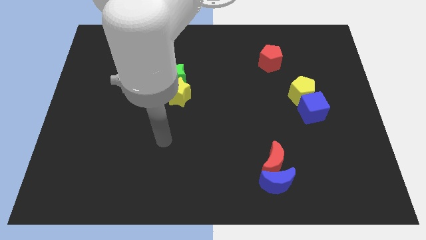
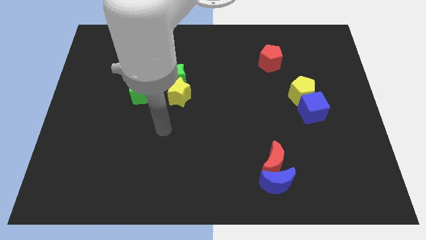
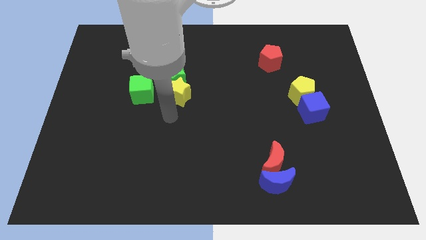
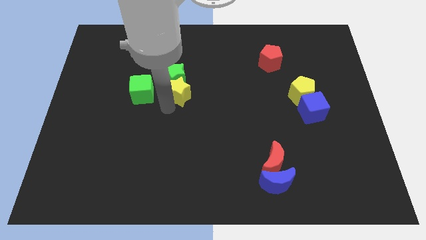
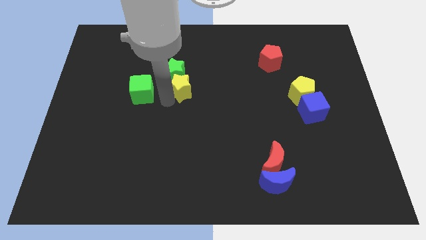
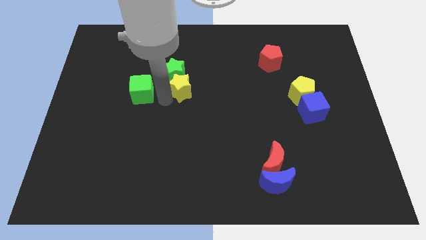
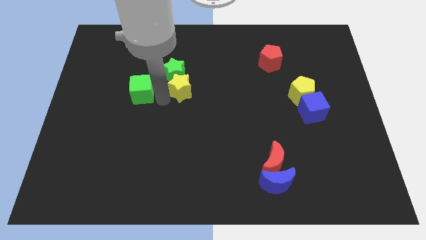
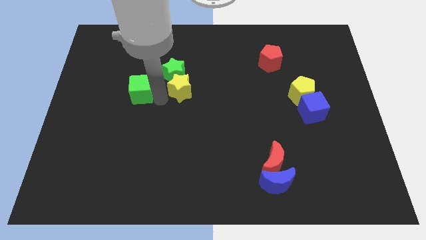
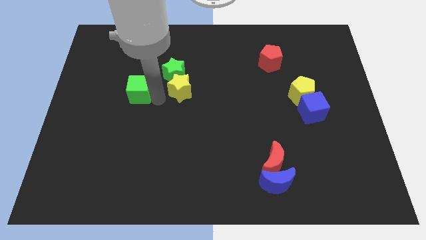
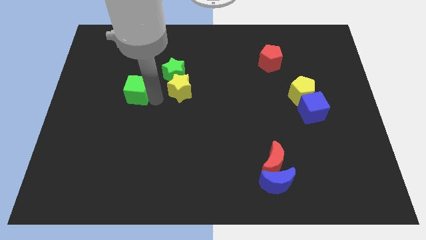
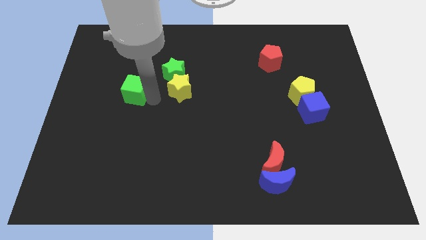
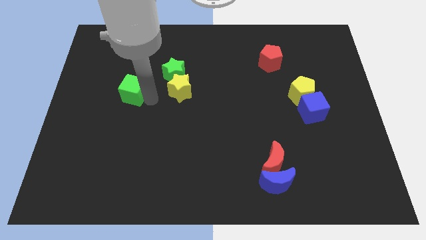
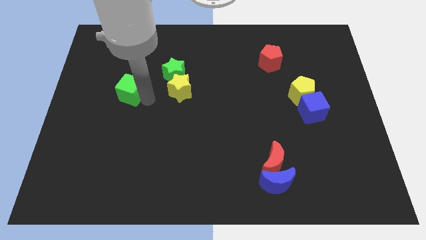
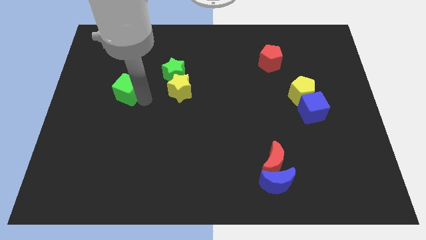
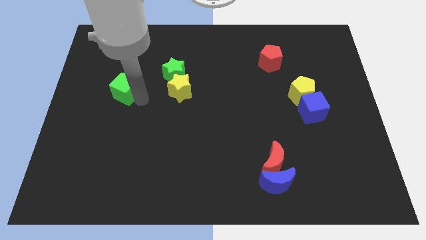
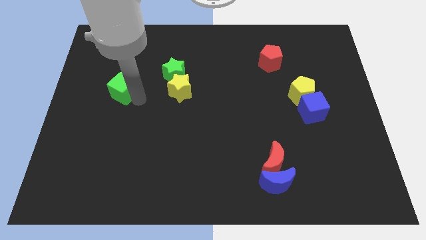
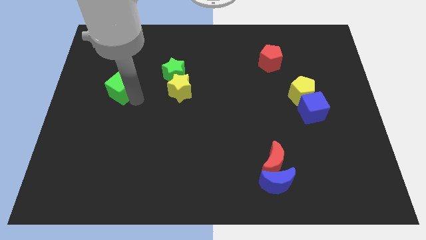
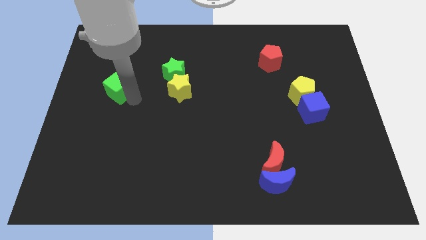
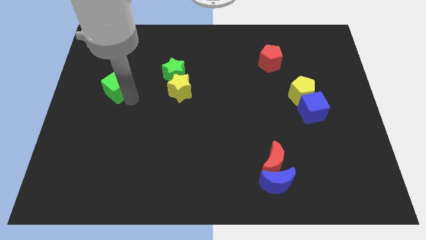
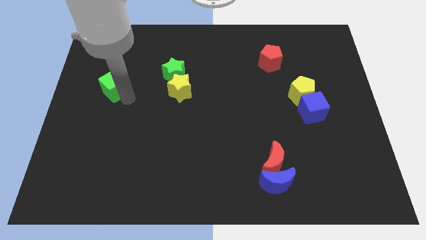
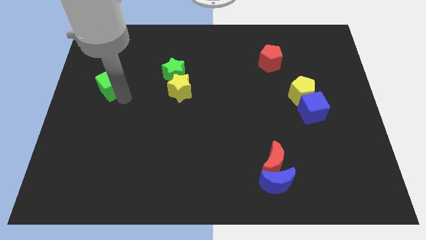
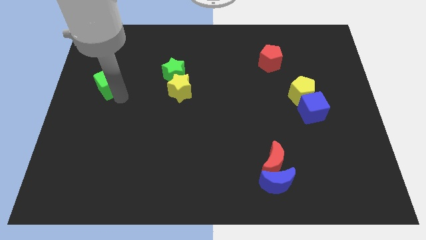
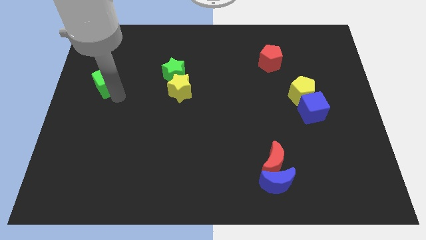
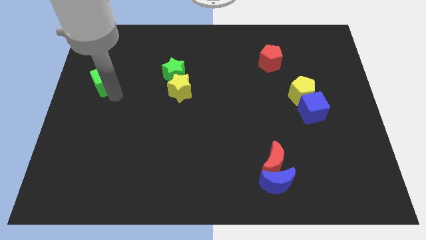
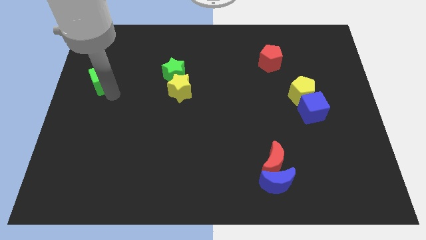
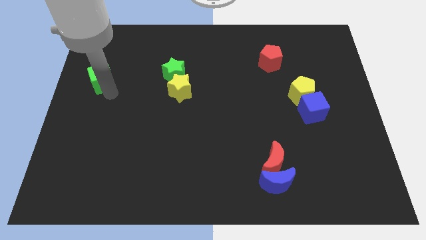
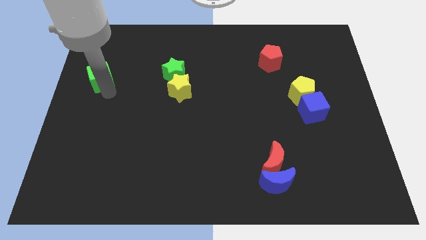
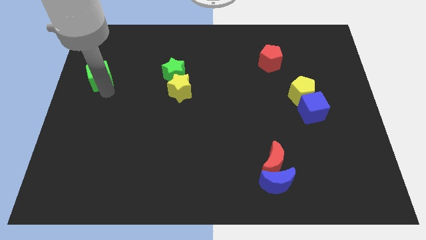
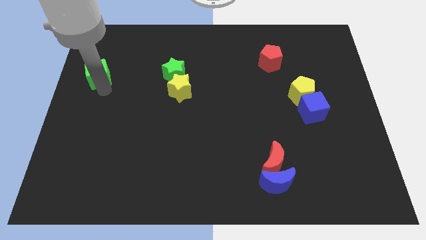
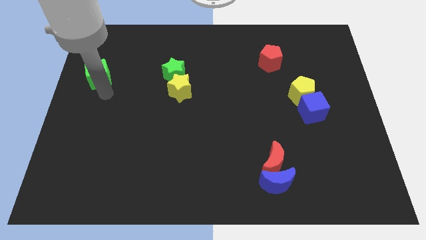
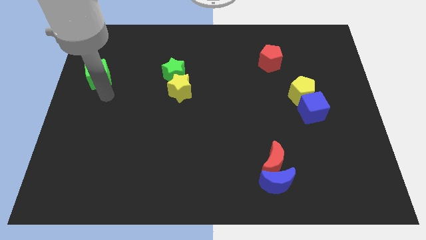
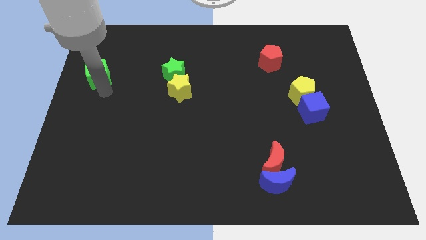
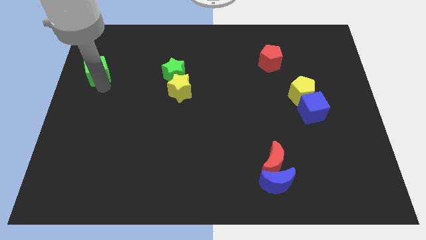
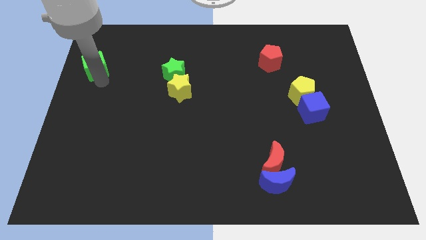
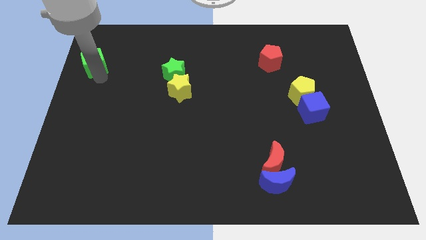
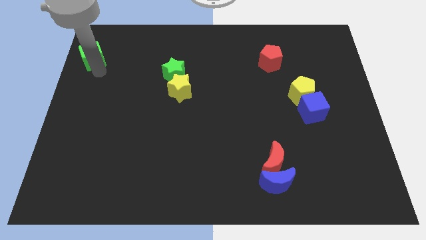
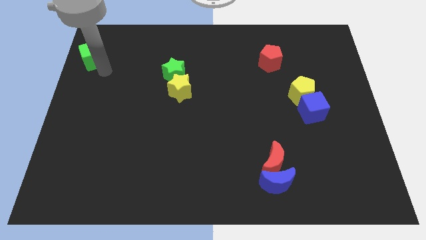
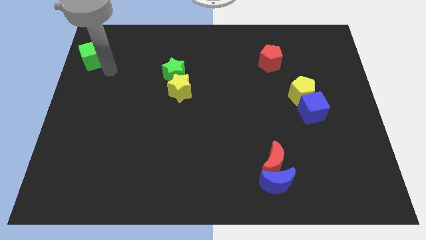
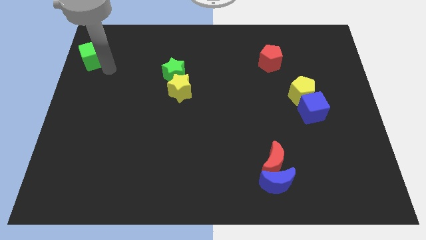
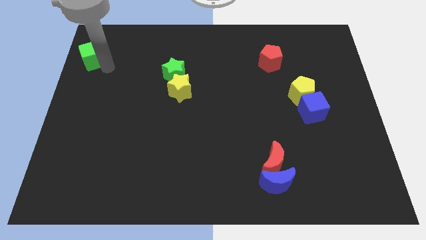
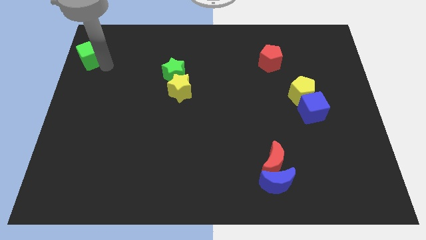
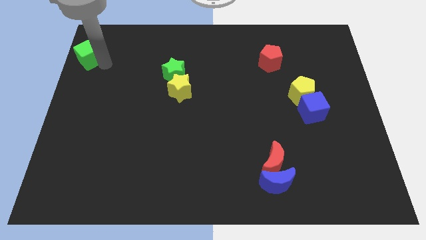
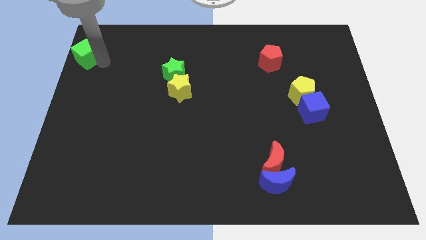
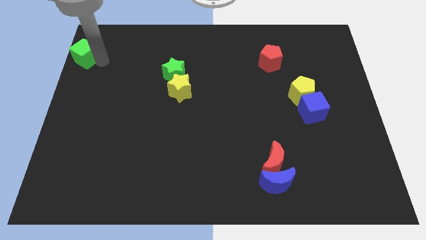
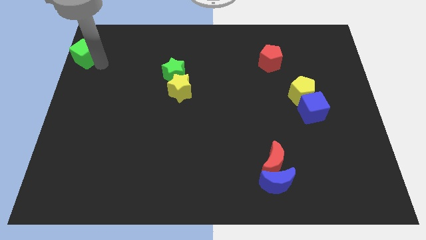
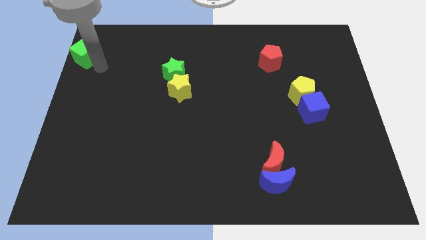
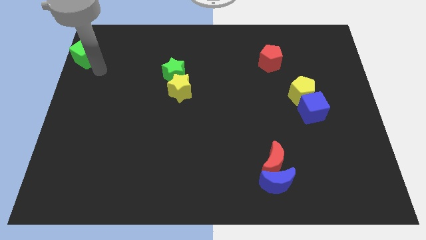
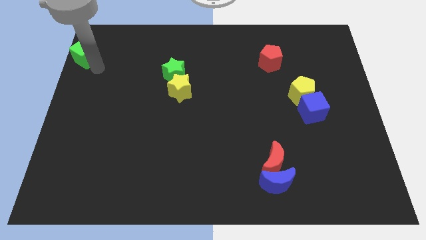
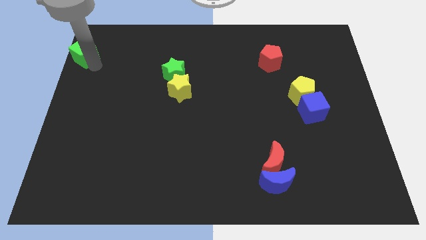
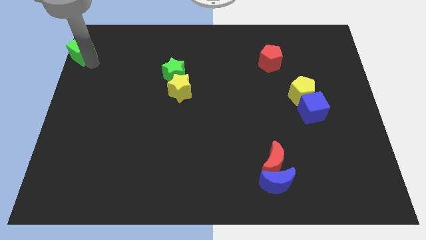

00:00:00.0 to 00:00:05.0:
move the green cube to the top left of the board
